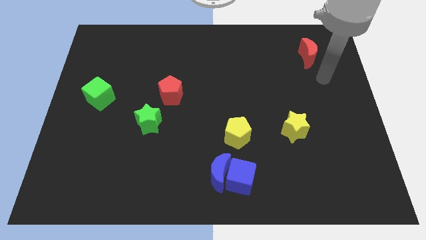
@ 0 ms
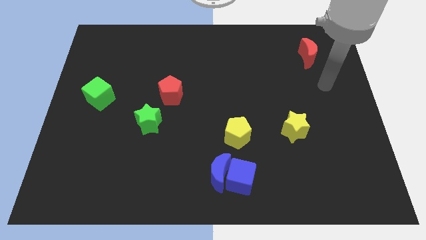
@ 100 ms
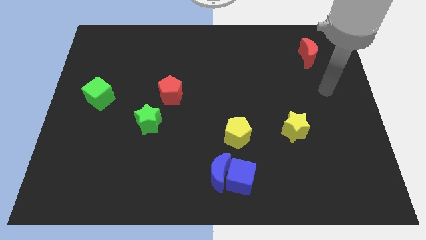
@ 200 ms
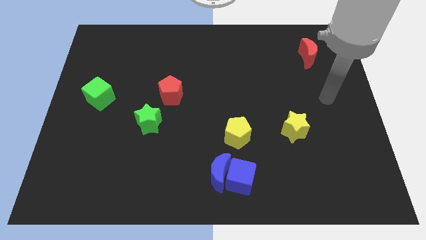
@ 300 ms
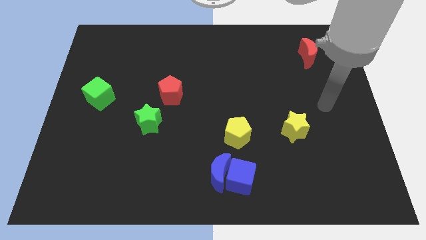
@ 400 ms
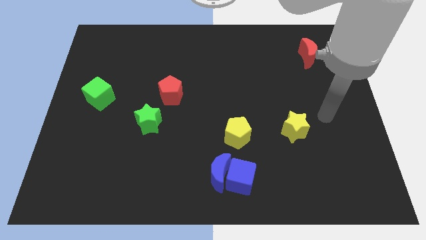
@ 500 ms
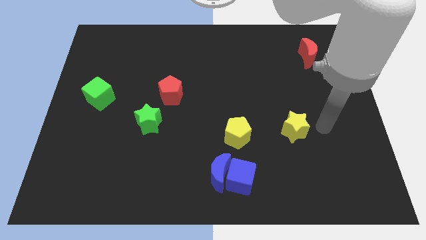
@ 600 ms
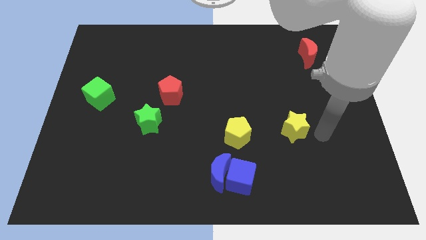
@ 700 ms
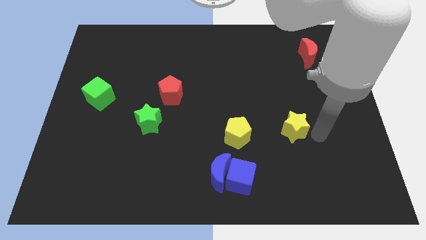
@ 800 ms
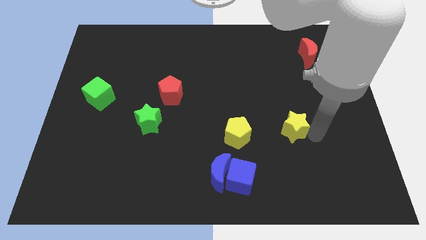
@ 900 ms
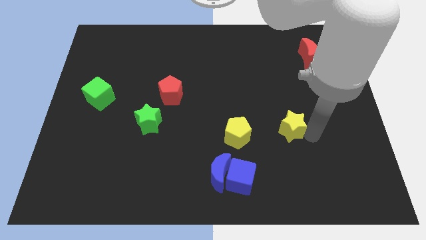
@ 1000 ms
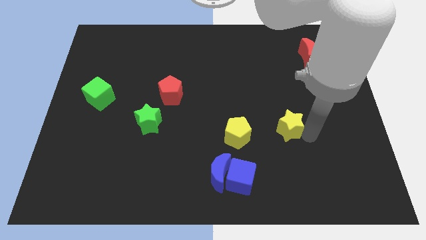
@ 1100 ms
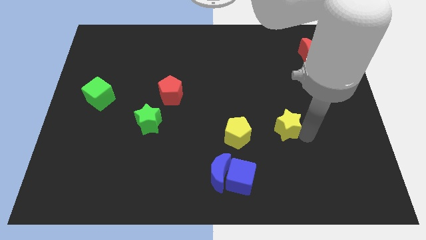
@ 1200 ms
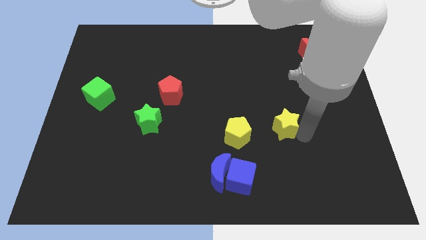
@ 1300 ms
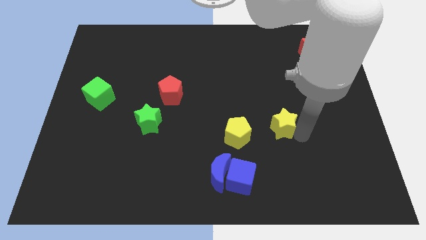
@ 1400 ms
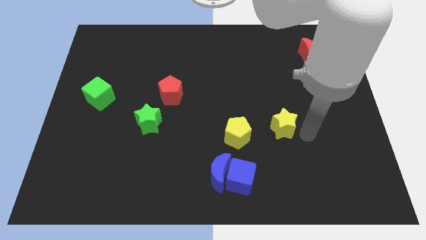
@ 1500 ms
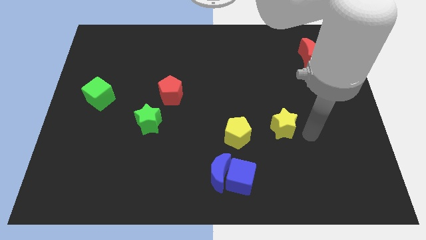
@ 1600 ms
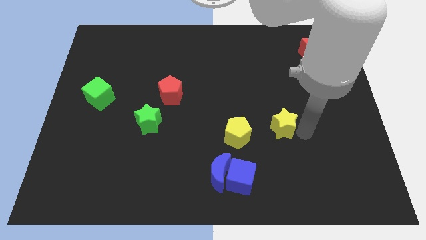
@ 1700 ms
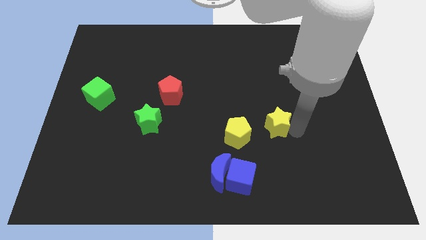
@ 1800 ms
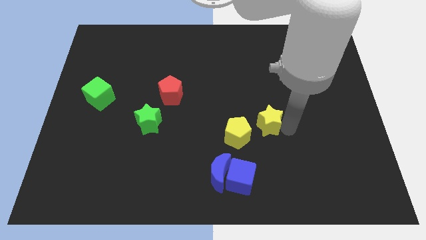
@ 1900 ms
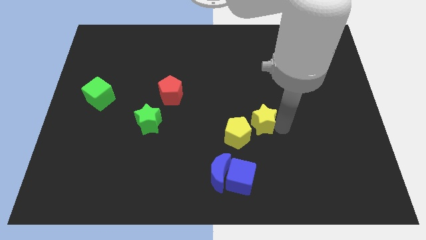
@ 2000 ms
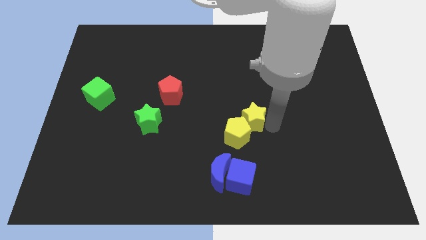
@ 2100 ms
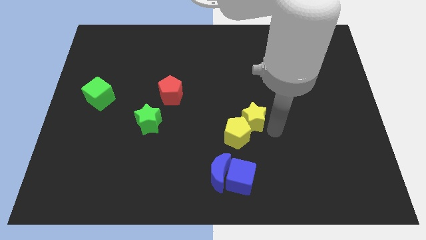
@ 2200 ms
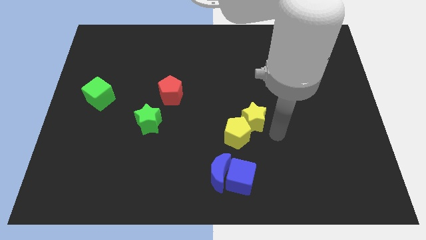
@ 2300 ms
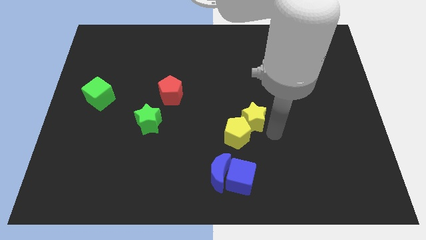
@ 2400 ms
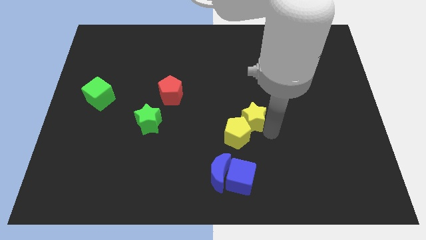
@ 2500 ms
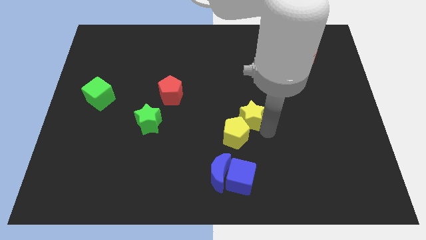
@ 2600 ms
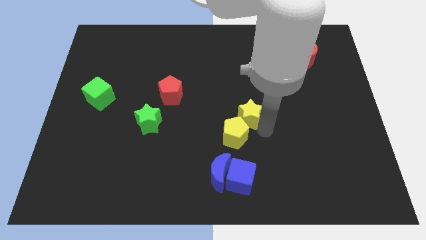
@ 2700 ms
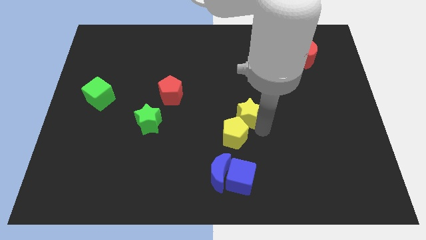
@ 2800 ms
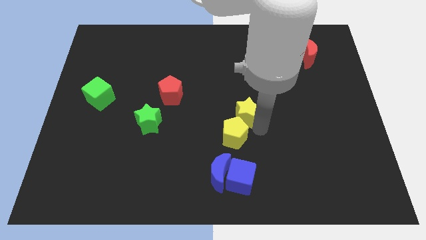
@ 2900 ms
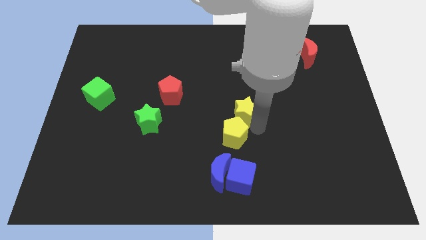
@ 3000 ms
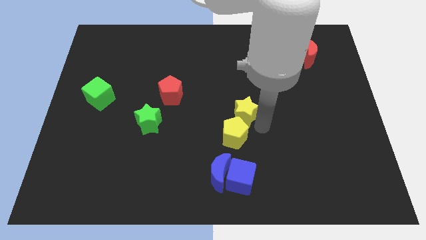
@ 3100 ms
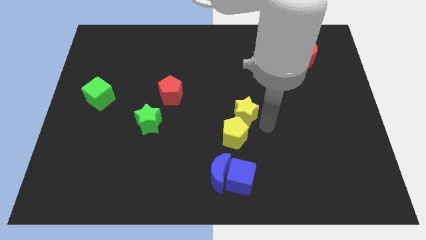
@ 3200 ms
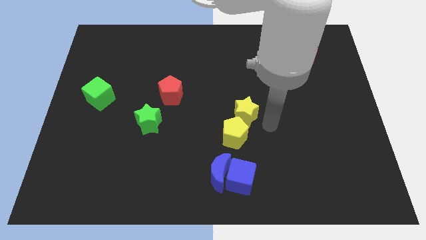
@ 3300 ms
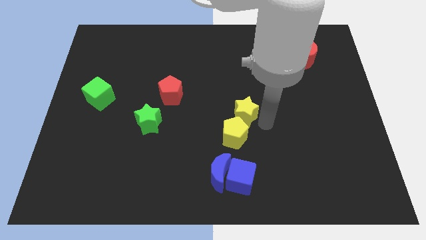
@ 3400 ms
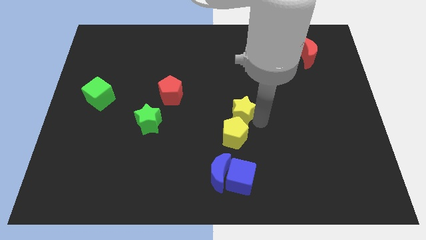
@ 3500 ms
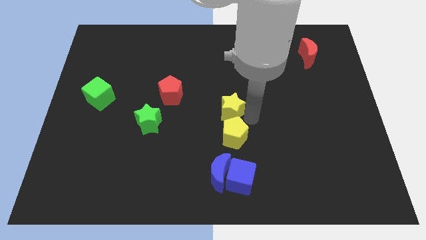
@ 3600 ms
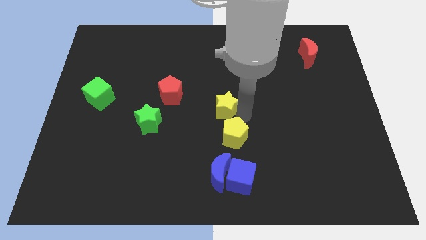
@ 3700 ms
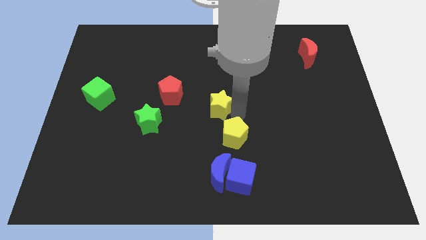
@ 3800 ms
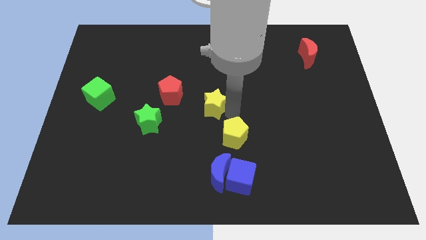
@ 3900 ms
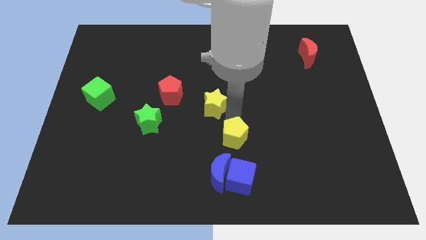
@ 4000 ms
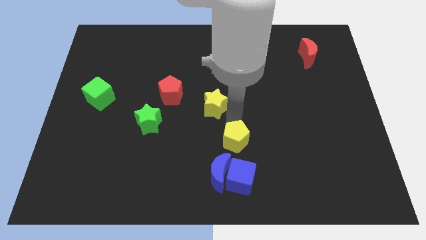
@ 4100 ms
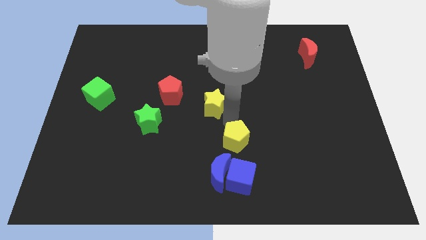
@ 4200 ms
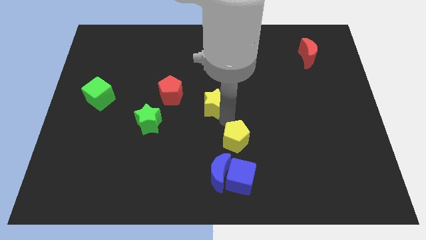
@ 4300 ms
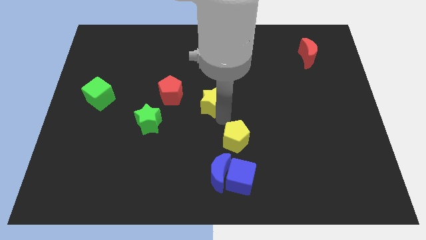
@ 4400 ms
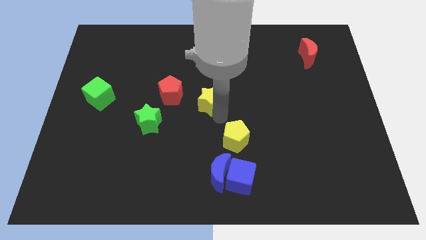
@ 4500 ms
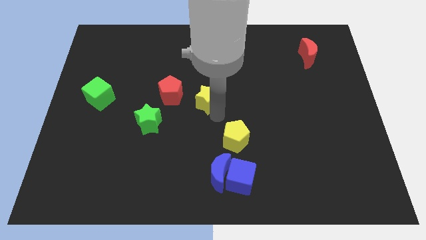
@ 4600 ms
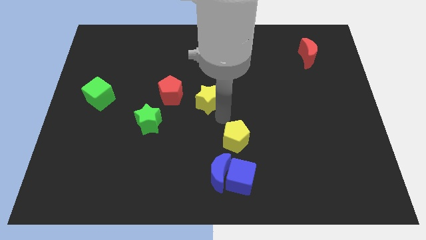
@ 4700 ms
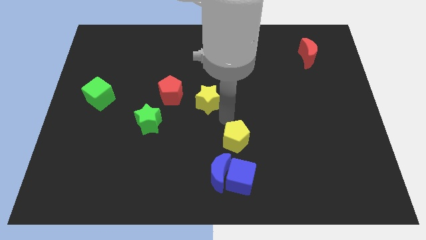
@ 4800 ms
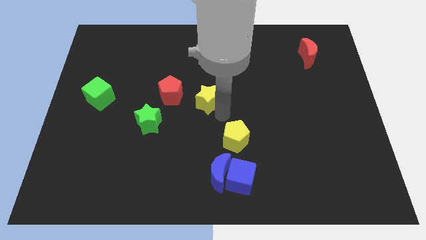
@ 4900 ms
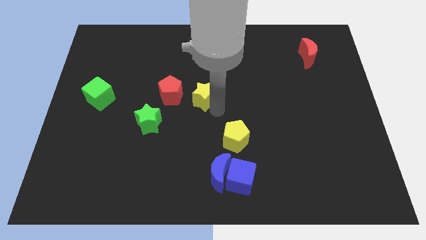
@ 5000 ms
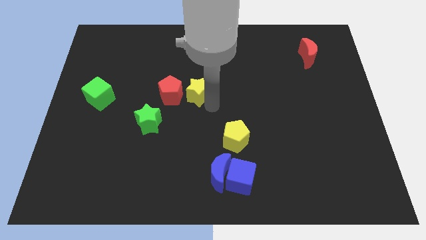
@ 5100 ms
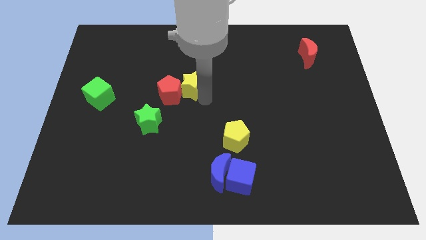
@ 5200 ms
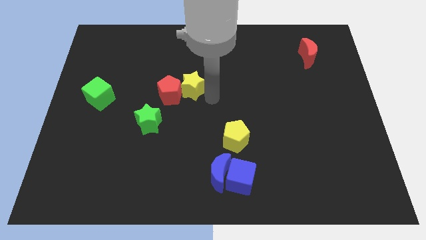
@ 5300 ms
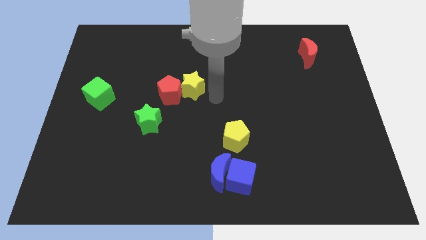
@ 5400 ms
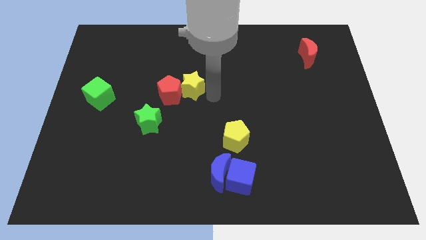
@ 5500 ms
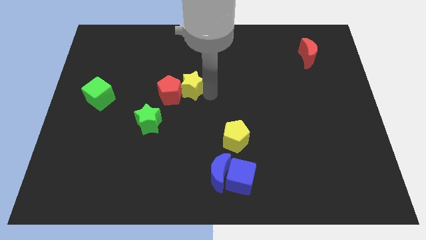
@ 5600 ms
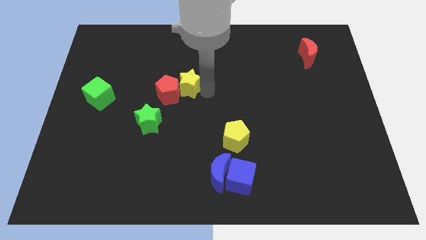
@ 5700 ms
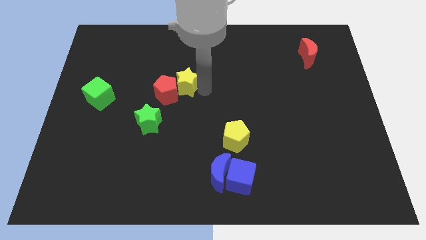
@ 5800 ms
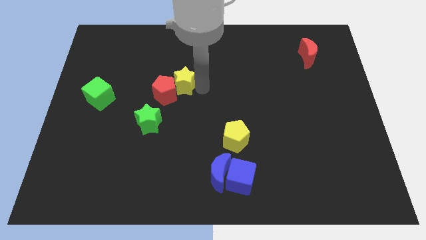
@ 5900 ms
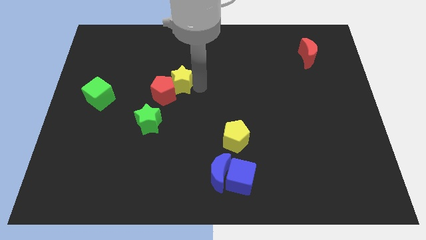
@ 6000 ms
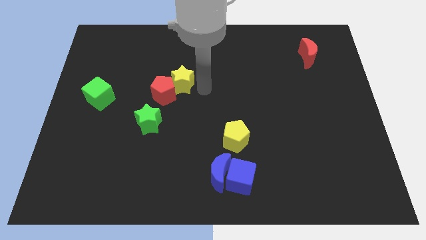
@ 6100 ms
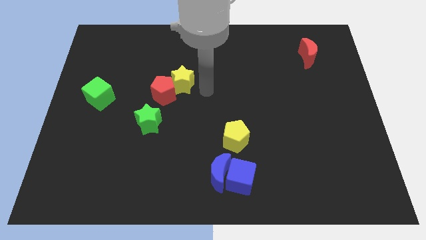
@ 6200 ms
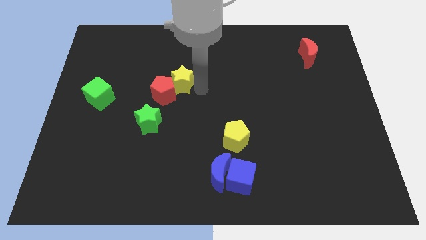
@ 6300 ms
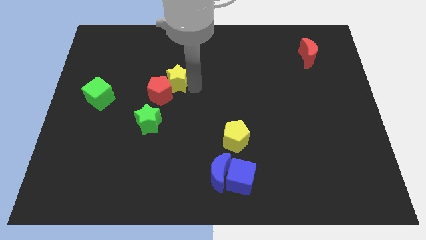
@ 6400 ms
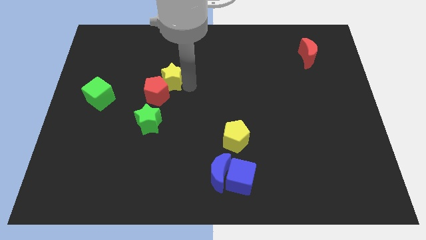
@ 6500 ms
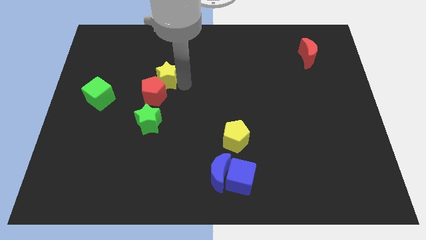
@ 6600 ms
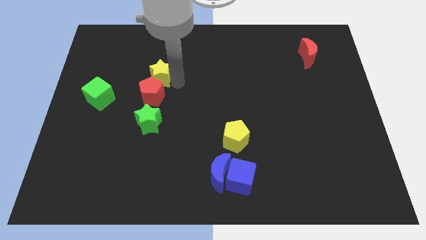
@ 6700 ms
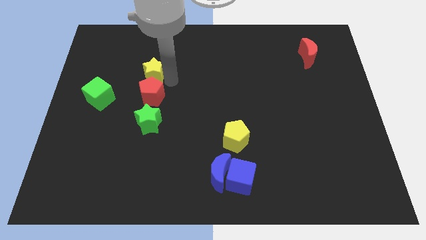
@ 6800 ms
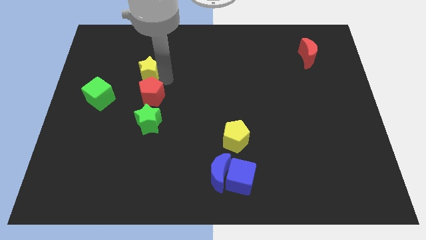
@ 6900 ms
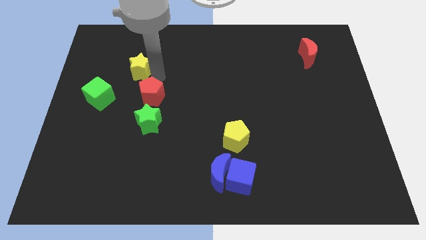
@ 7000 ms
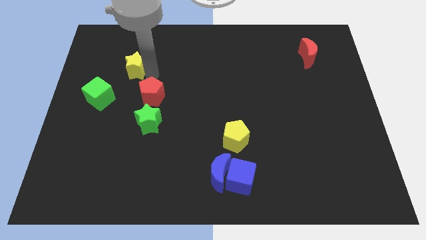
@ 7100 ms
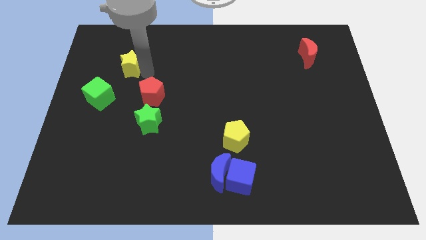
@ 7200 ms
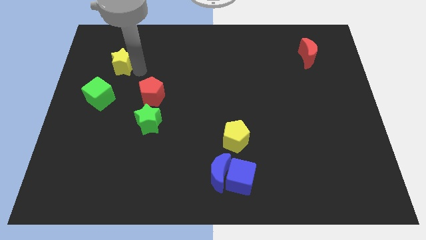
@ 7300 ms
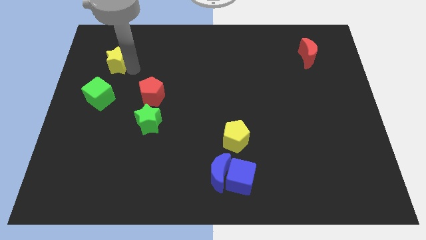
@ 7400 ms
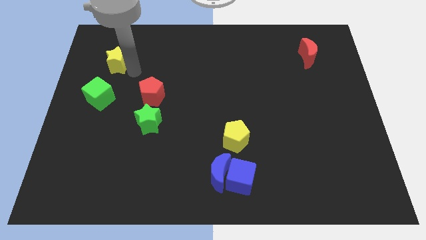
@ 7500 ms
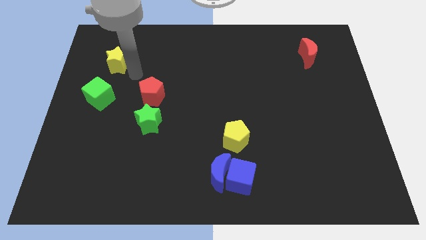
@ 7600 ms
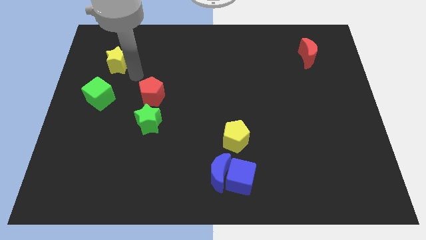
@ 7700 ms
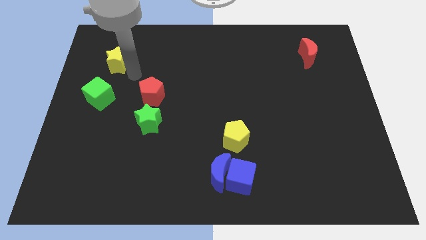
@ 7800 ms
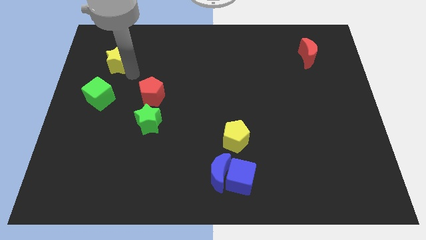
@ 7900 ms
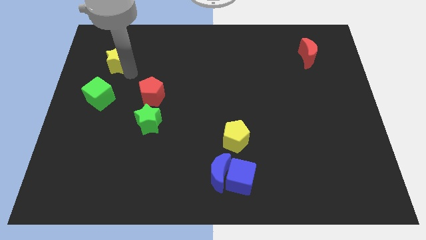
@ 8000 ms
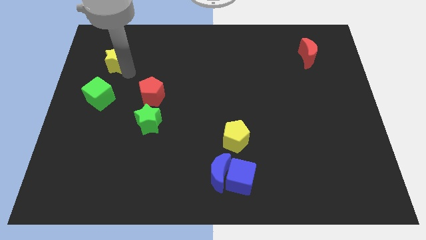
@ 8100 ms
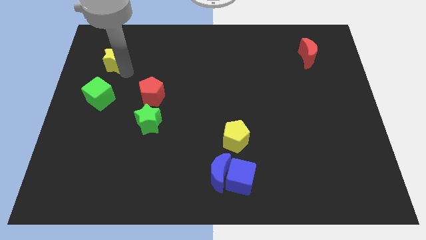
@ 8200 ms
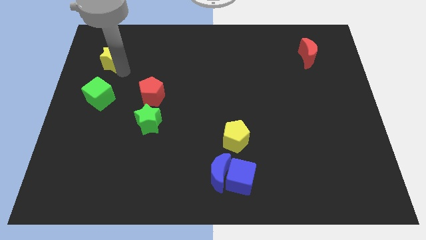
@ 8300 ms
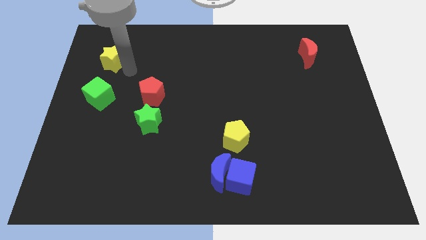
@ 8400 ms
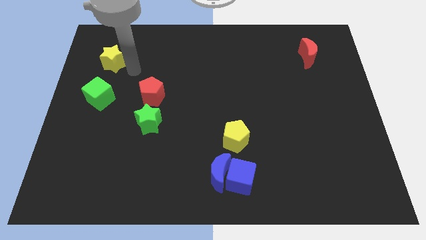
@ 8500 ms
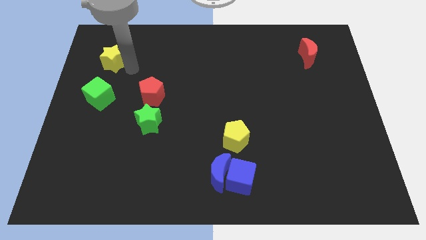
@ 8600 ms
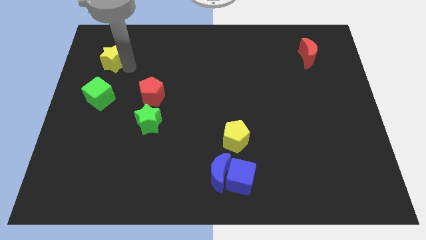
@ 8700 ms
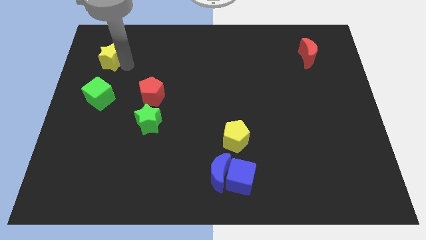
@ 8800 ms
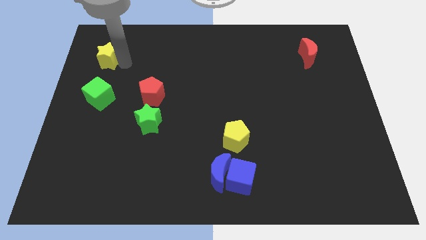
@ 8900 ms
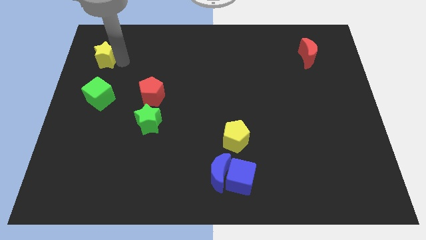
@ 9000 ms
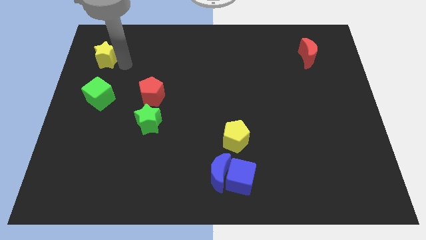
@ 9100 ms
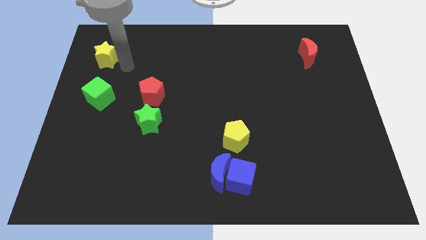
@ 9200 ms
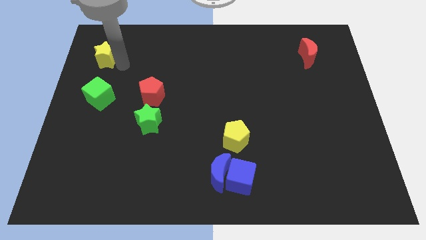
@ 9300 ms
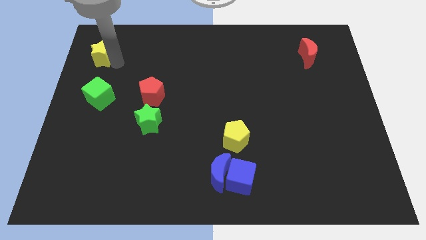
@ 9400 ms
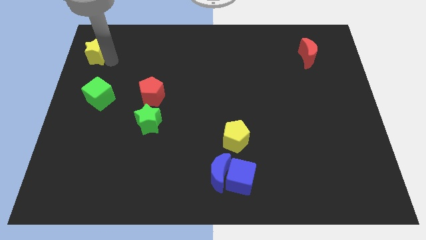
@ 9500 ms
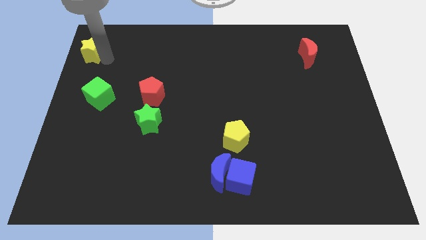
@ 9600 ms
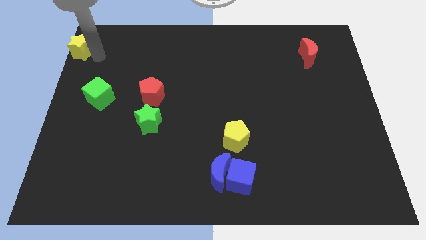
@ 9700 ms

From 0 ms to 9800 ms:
slide the yellow star to the top left corner
